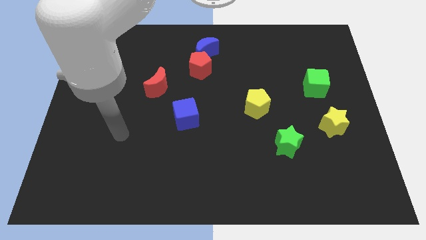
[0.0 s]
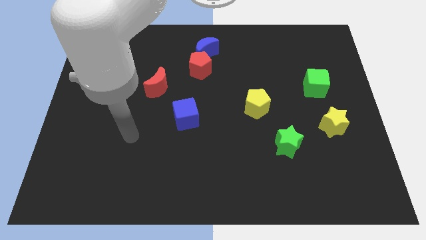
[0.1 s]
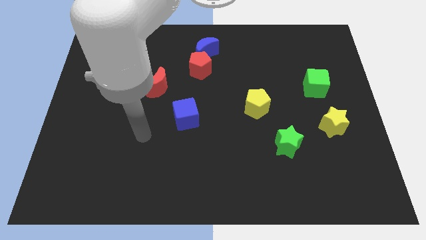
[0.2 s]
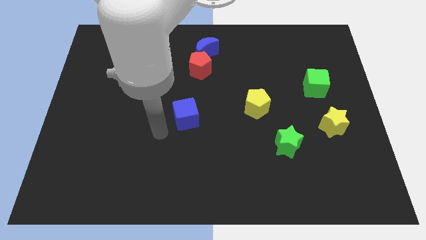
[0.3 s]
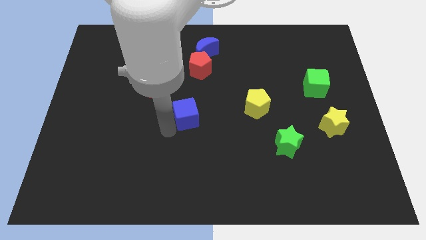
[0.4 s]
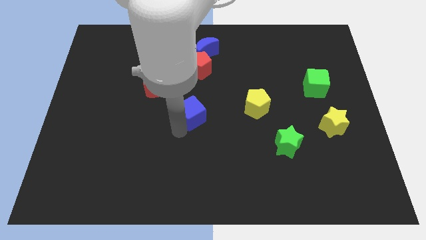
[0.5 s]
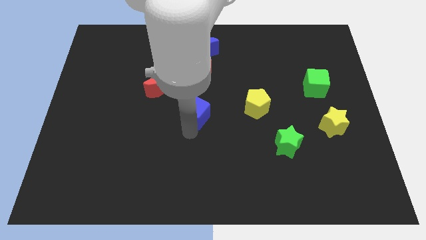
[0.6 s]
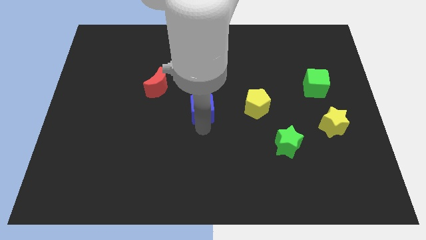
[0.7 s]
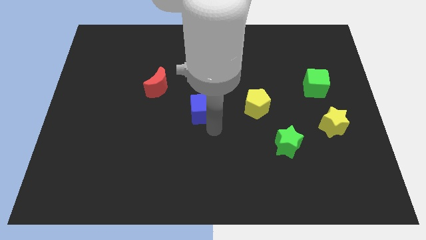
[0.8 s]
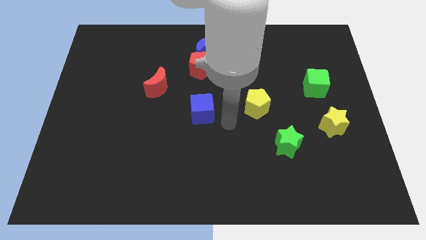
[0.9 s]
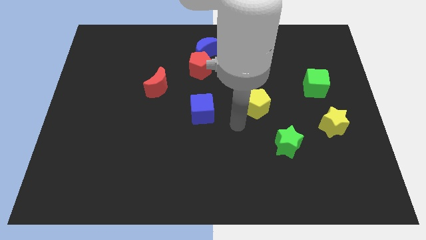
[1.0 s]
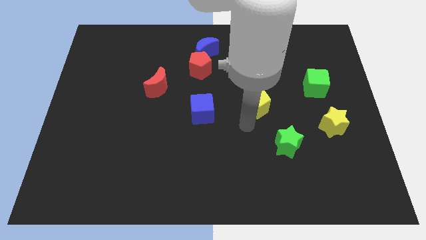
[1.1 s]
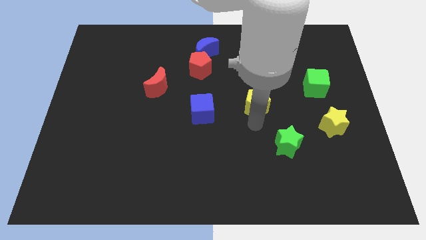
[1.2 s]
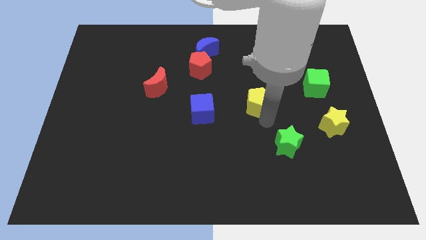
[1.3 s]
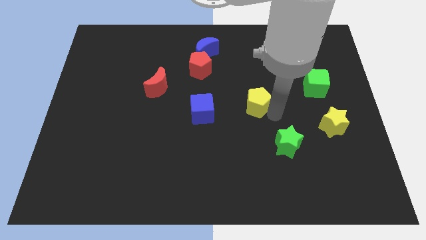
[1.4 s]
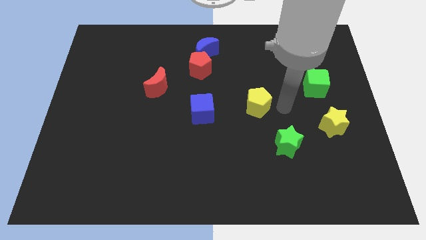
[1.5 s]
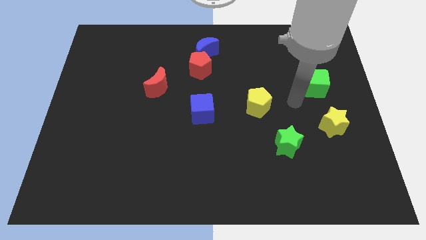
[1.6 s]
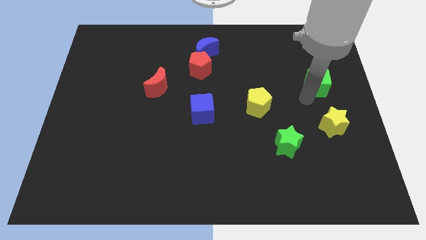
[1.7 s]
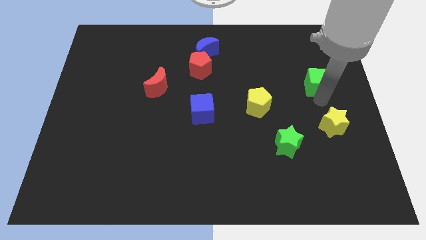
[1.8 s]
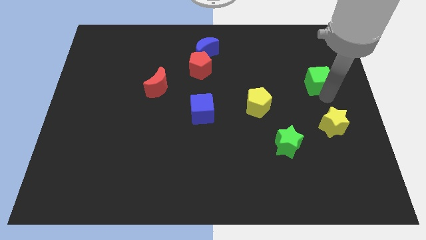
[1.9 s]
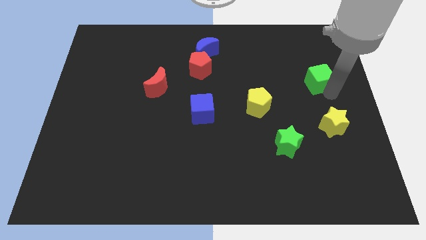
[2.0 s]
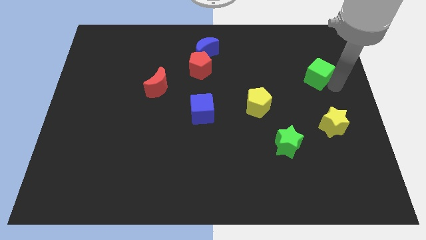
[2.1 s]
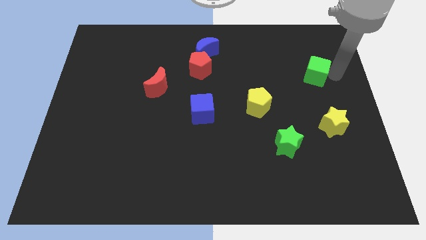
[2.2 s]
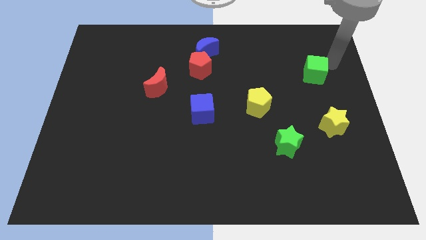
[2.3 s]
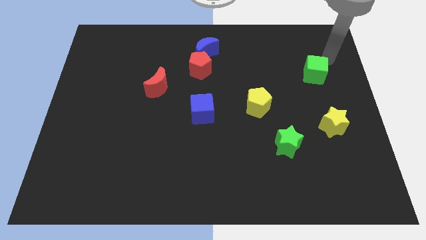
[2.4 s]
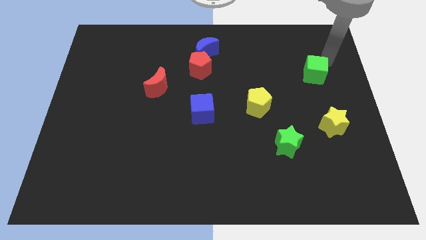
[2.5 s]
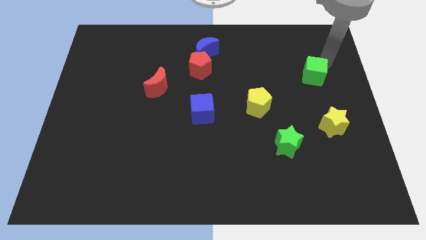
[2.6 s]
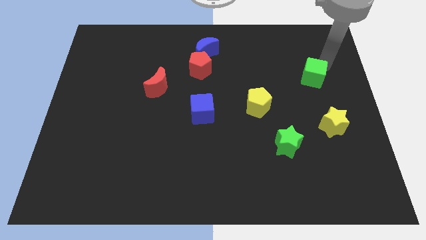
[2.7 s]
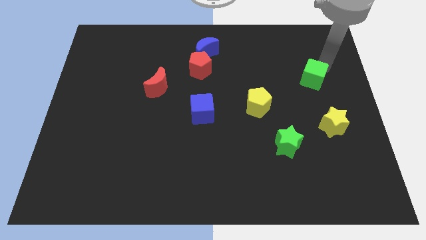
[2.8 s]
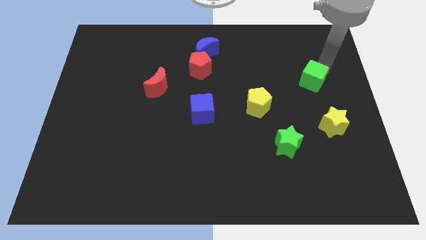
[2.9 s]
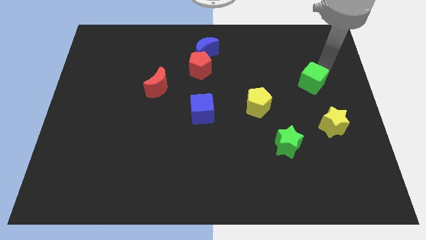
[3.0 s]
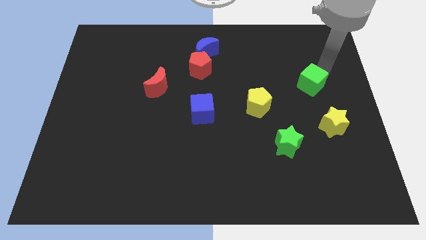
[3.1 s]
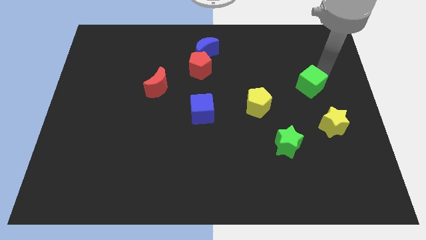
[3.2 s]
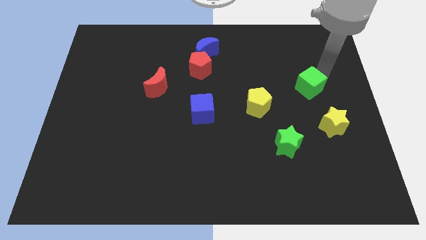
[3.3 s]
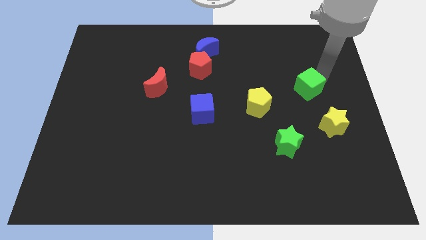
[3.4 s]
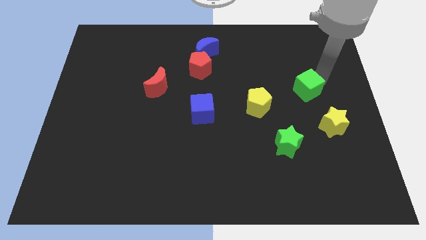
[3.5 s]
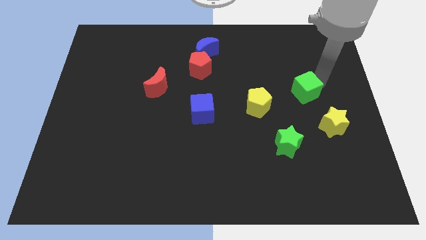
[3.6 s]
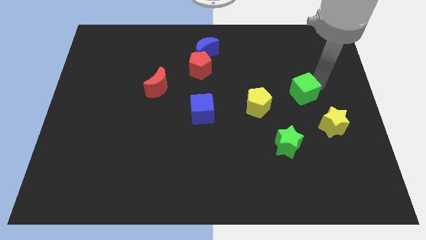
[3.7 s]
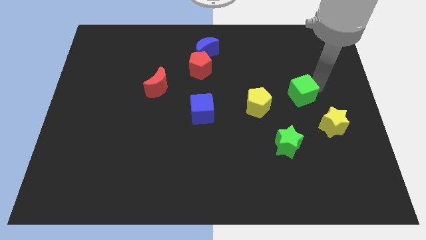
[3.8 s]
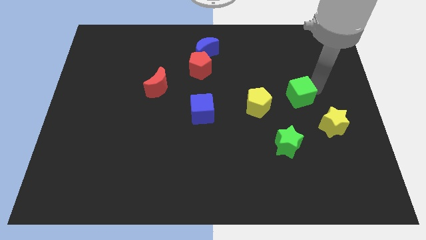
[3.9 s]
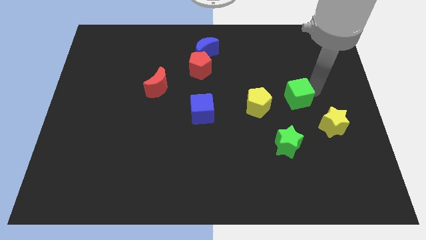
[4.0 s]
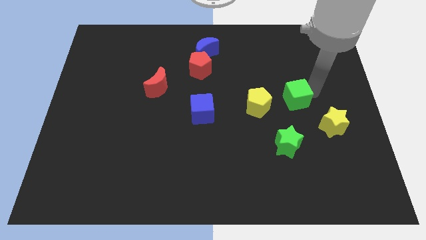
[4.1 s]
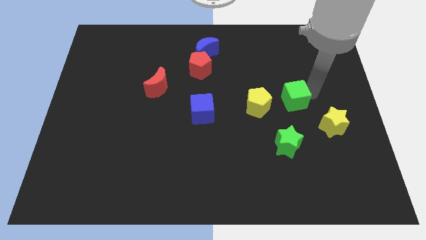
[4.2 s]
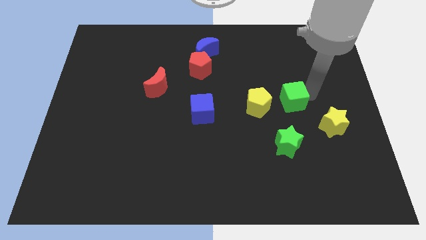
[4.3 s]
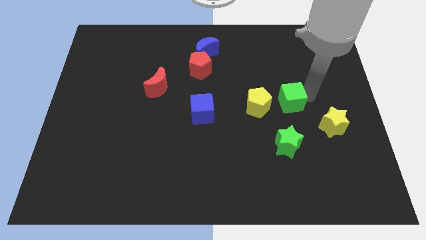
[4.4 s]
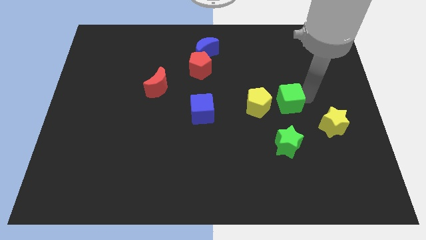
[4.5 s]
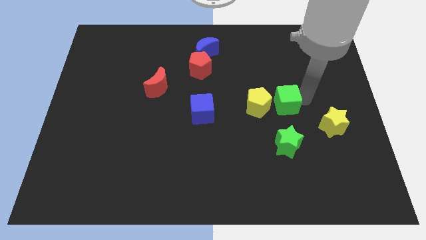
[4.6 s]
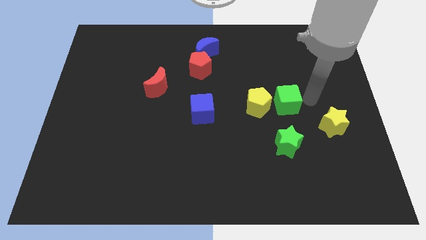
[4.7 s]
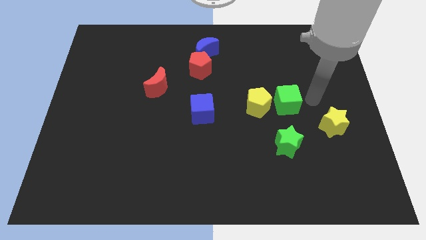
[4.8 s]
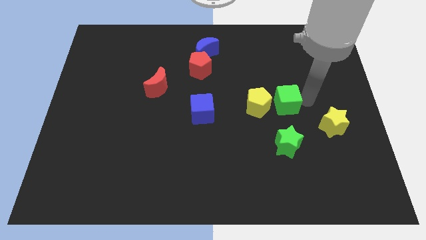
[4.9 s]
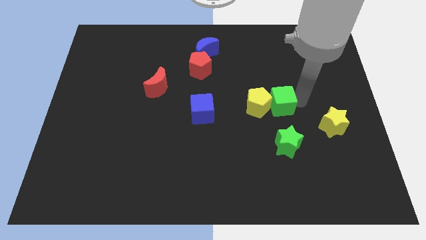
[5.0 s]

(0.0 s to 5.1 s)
slide the green cube close to the yellow pentagon

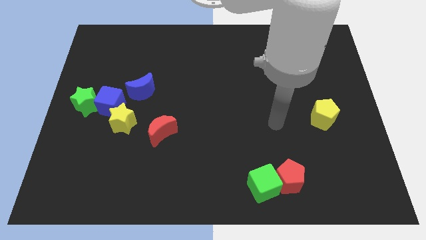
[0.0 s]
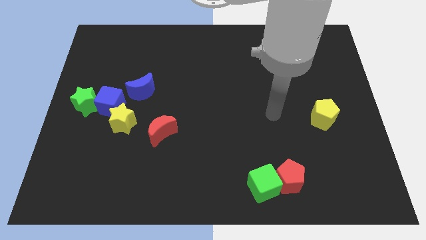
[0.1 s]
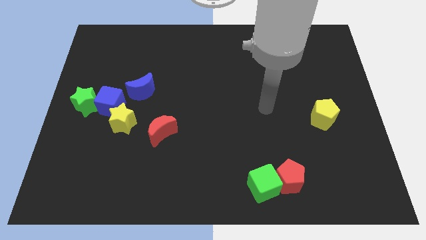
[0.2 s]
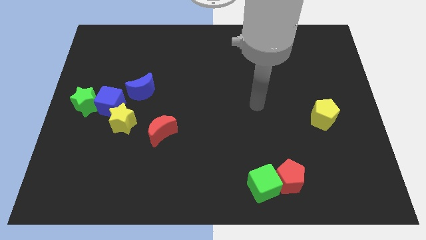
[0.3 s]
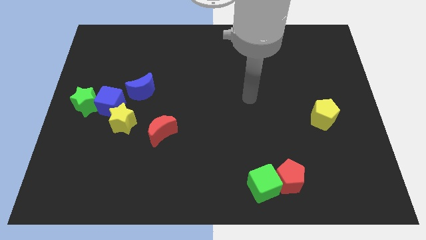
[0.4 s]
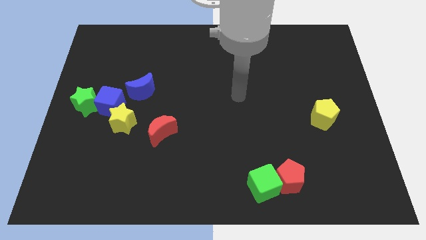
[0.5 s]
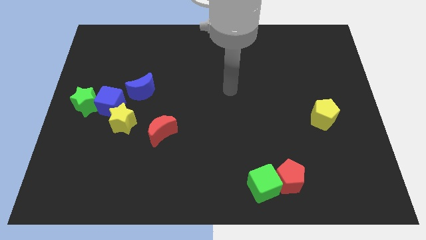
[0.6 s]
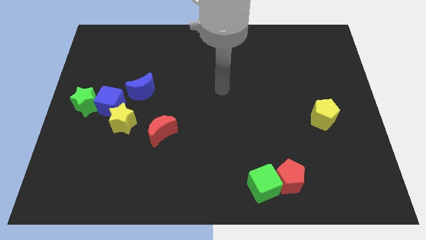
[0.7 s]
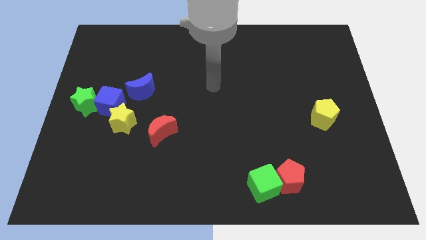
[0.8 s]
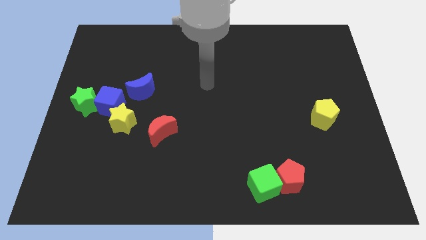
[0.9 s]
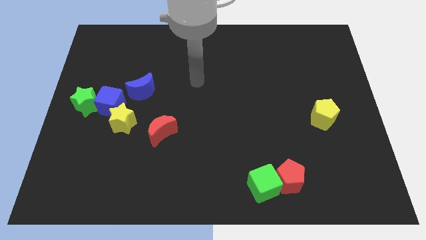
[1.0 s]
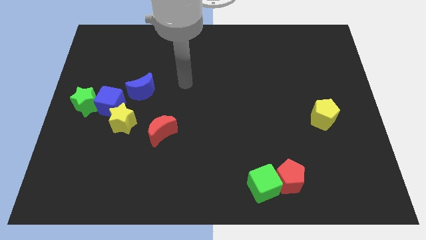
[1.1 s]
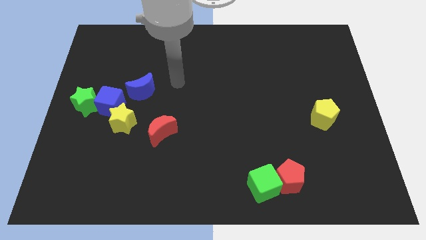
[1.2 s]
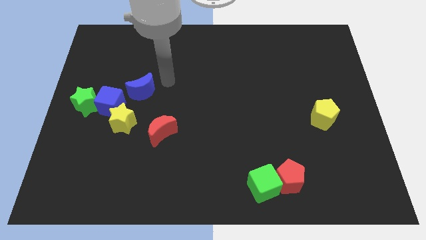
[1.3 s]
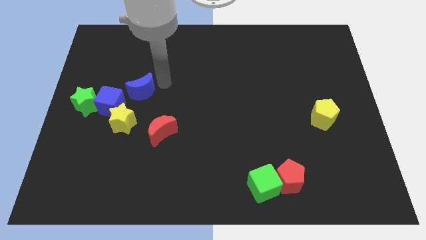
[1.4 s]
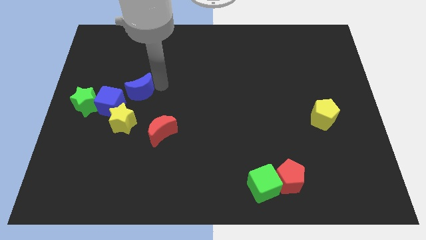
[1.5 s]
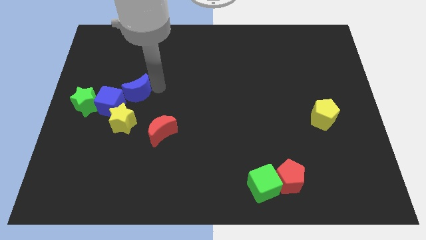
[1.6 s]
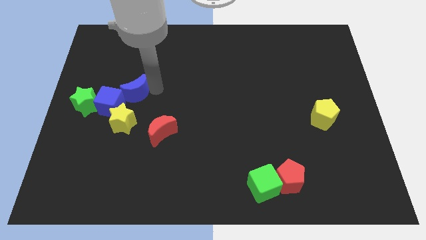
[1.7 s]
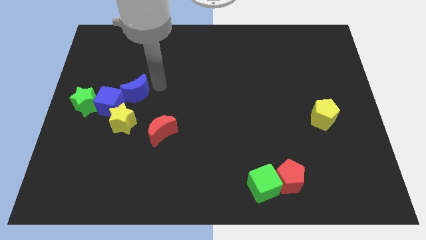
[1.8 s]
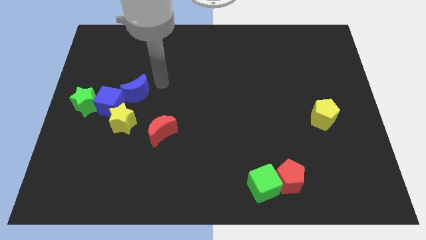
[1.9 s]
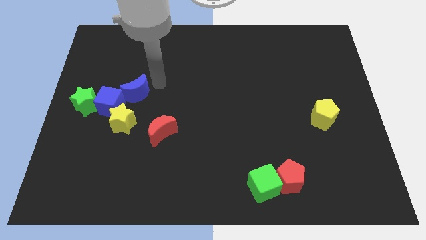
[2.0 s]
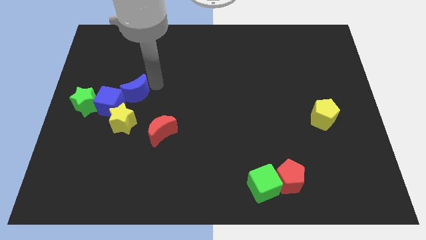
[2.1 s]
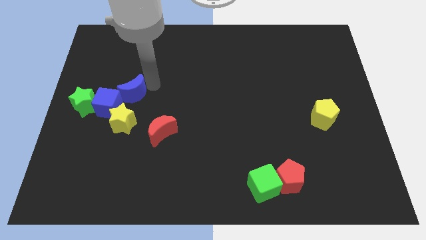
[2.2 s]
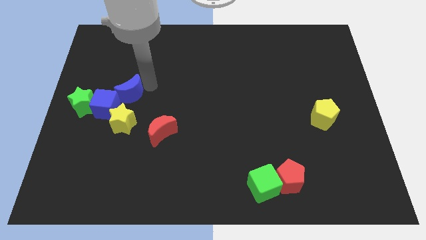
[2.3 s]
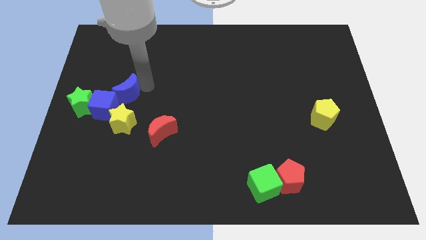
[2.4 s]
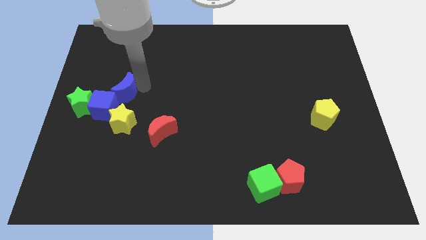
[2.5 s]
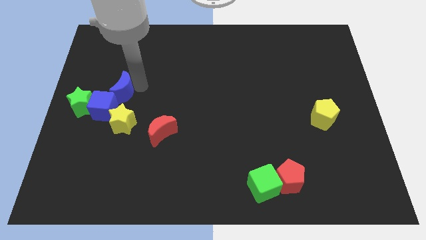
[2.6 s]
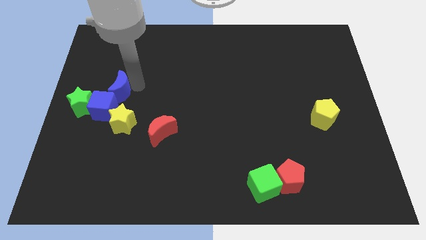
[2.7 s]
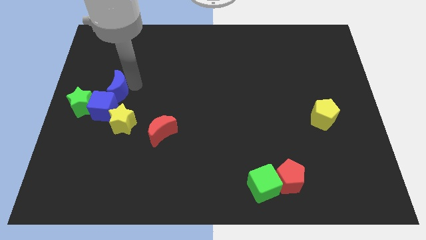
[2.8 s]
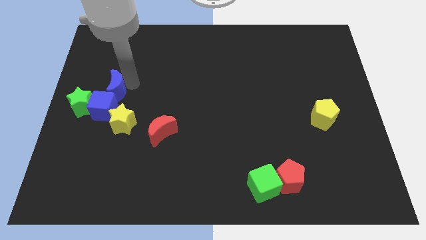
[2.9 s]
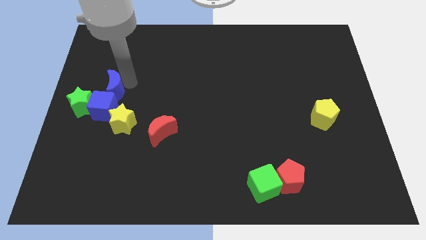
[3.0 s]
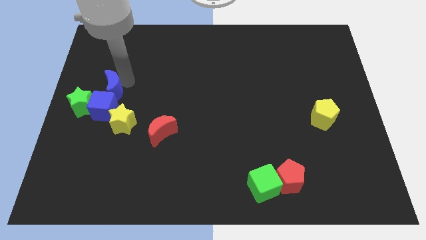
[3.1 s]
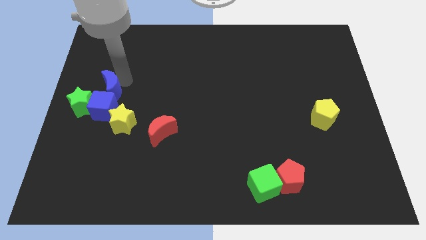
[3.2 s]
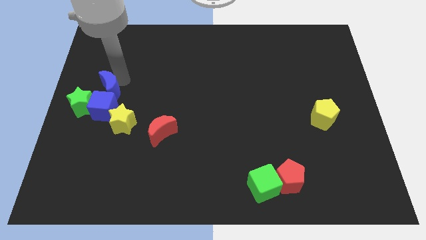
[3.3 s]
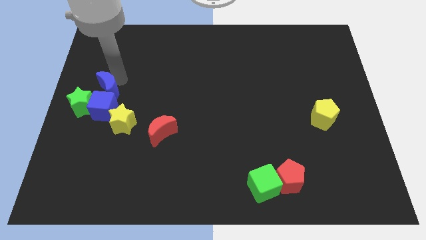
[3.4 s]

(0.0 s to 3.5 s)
put the blue moon next to the blue cube

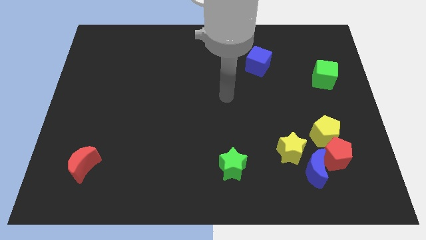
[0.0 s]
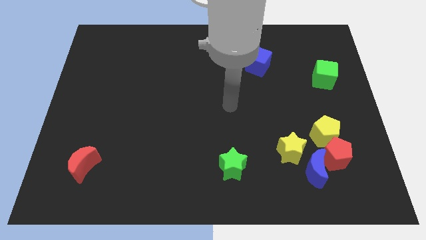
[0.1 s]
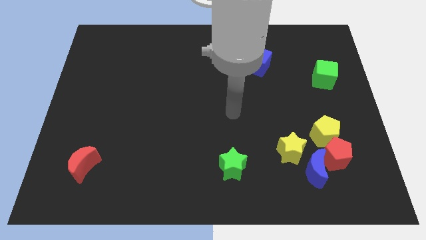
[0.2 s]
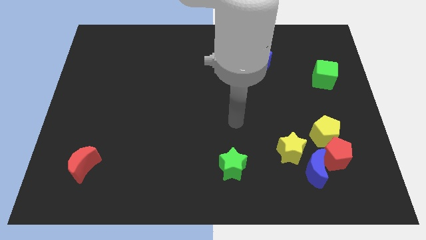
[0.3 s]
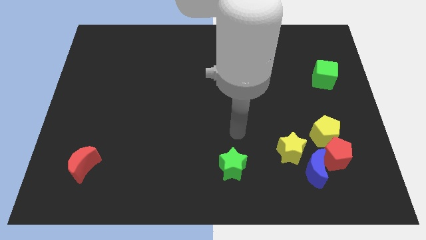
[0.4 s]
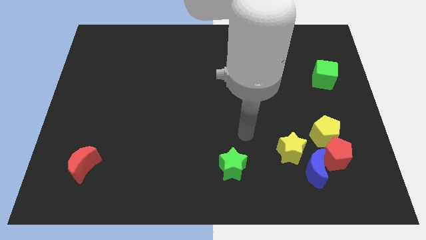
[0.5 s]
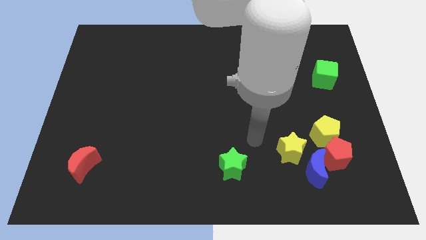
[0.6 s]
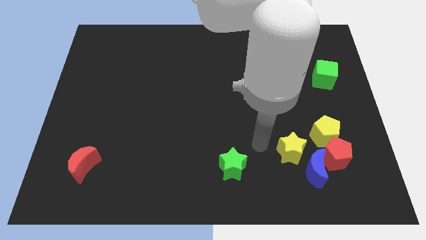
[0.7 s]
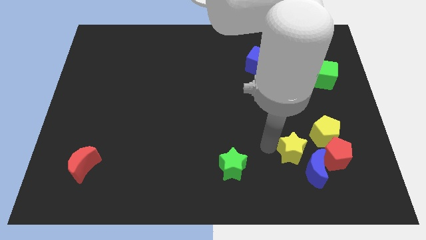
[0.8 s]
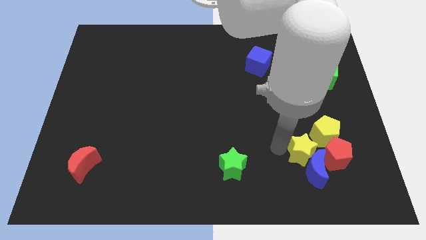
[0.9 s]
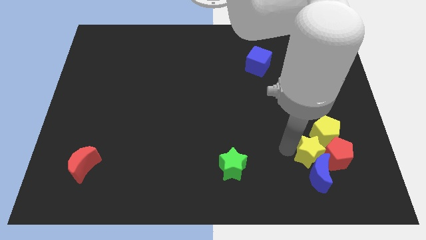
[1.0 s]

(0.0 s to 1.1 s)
push the yellow star close to the red pentagon
